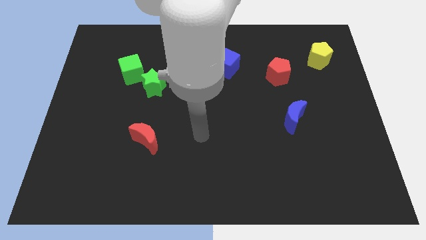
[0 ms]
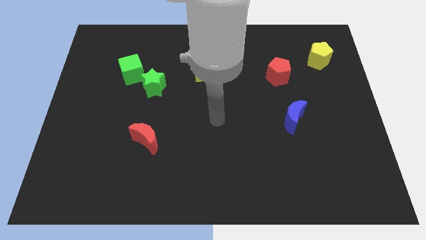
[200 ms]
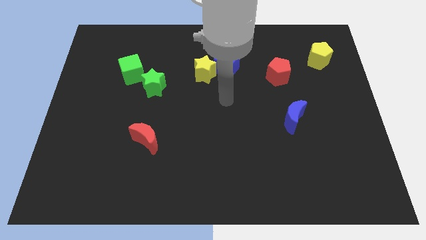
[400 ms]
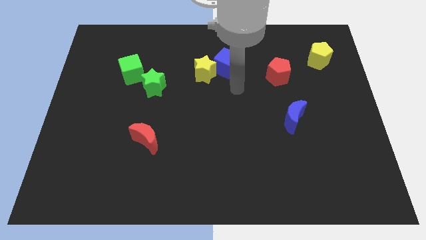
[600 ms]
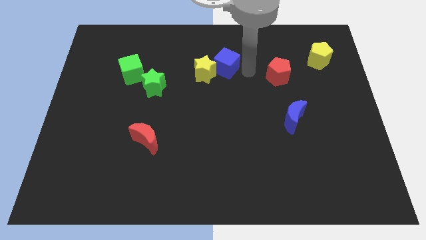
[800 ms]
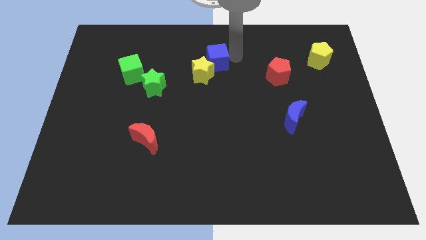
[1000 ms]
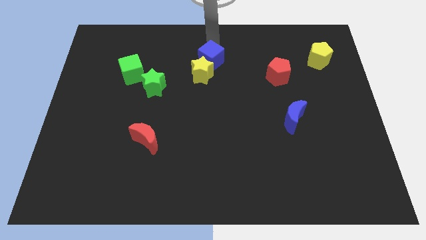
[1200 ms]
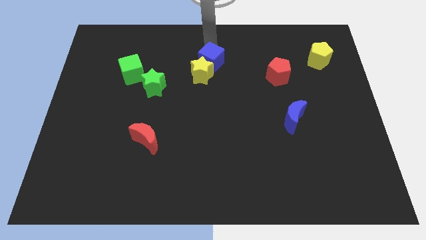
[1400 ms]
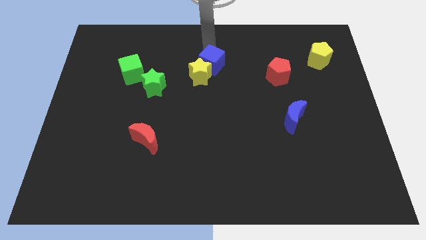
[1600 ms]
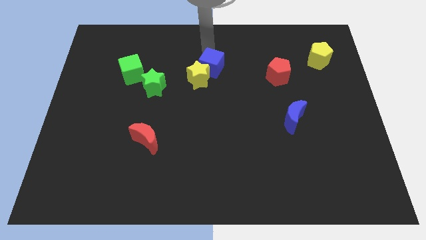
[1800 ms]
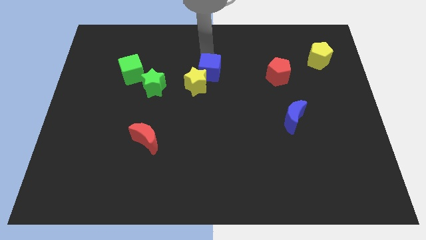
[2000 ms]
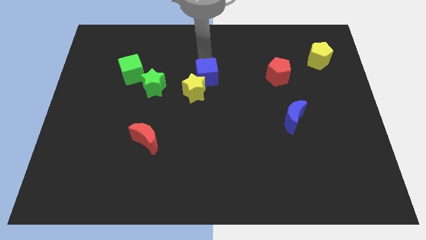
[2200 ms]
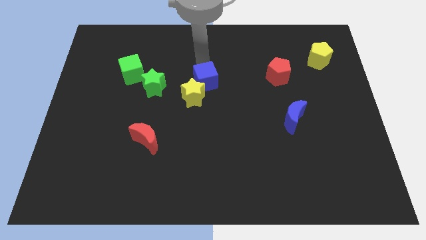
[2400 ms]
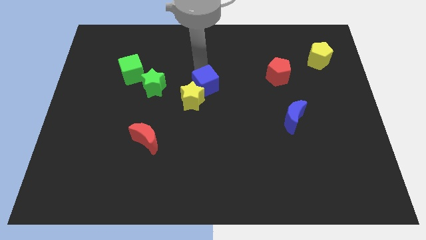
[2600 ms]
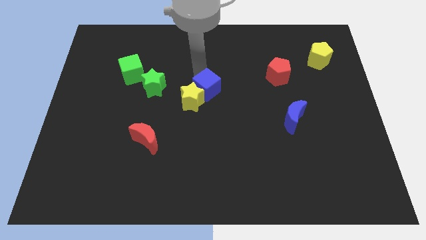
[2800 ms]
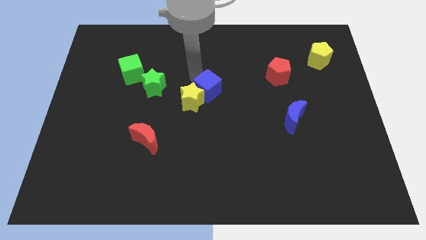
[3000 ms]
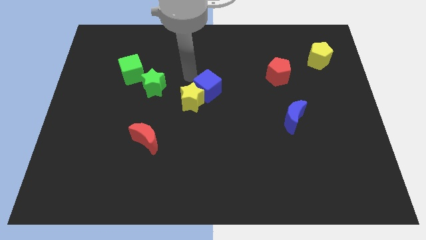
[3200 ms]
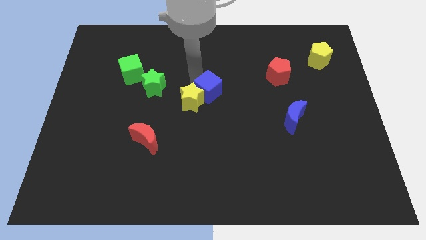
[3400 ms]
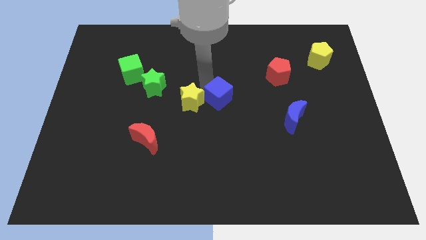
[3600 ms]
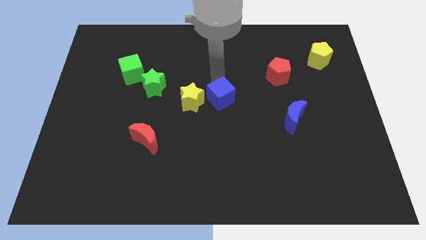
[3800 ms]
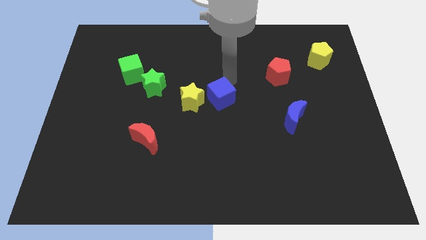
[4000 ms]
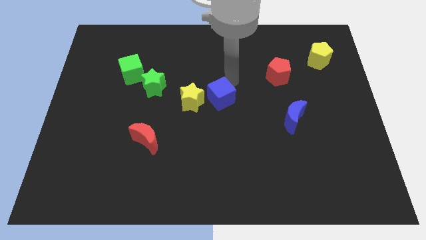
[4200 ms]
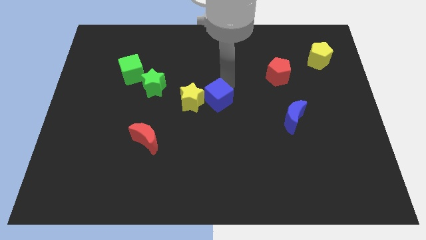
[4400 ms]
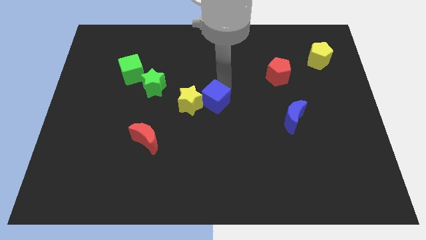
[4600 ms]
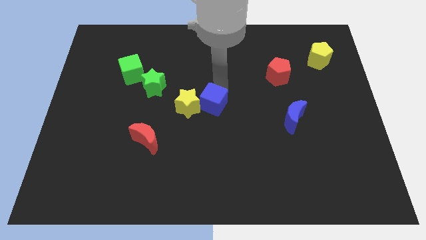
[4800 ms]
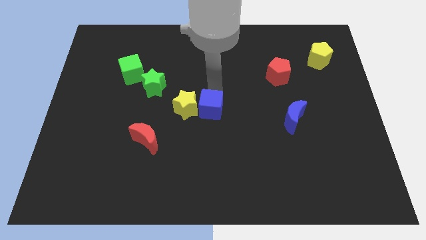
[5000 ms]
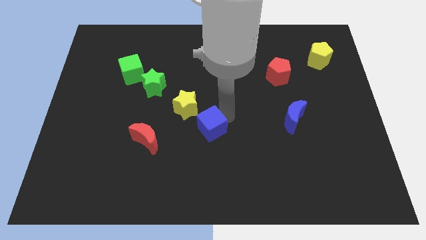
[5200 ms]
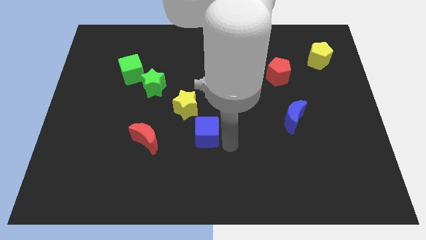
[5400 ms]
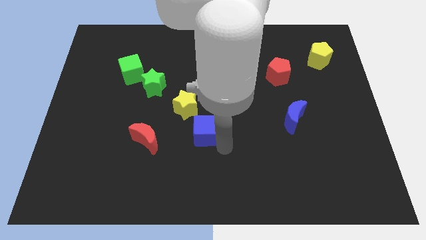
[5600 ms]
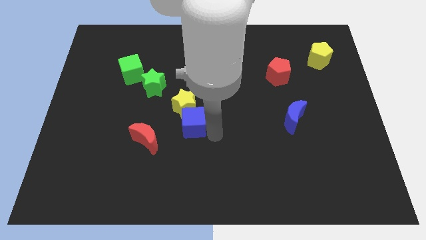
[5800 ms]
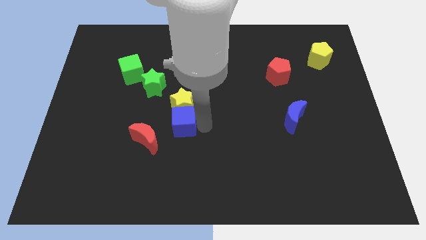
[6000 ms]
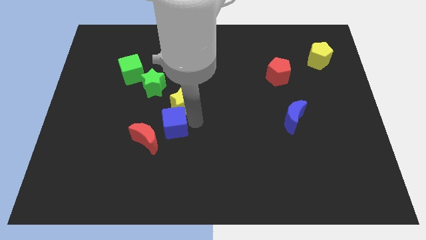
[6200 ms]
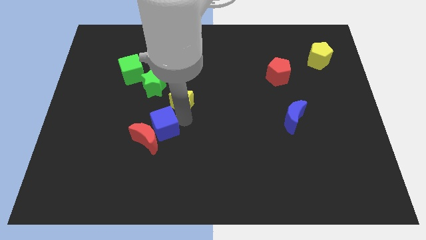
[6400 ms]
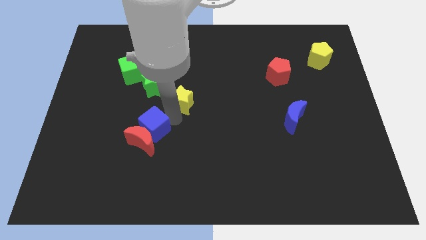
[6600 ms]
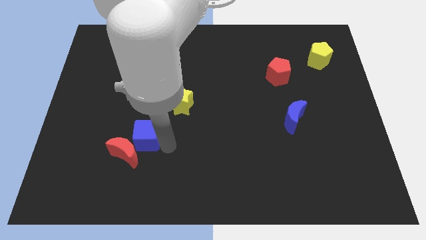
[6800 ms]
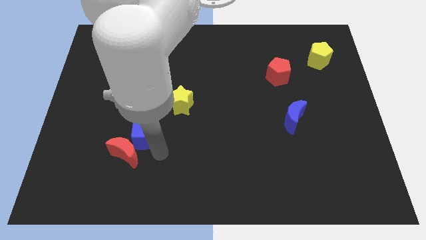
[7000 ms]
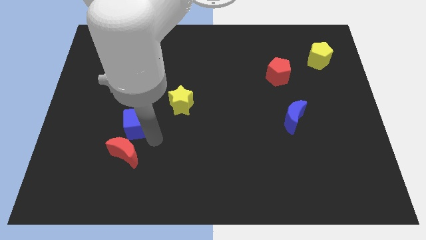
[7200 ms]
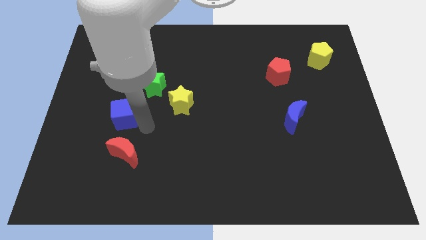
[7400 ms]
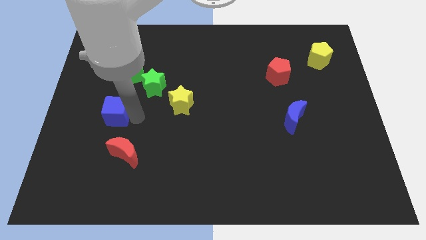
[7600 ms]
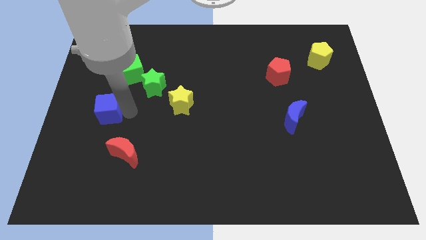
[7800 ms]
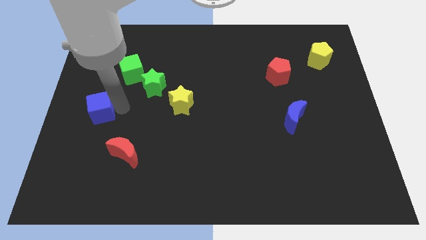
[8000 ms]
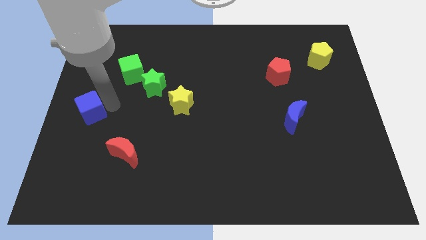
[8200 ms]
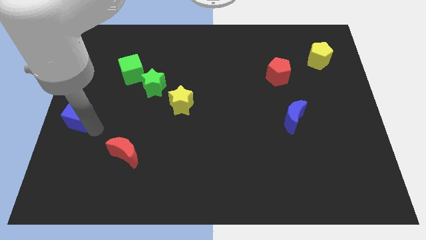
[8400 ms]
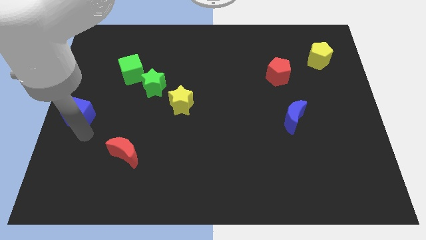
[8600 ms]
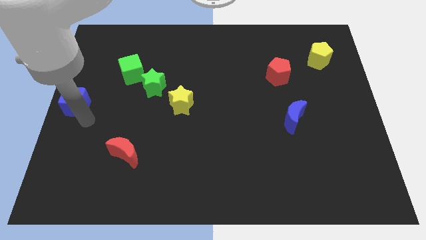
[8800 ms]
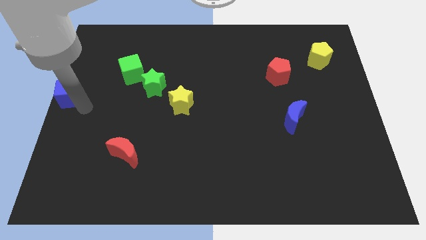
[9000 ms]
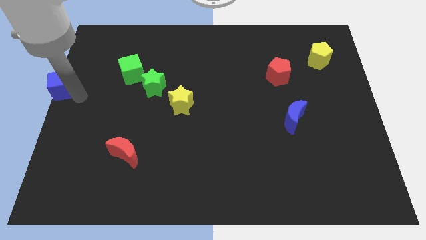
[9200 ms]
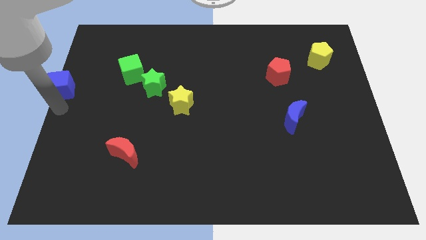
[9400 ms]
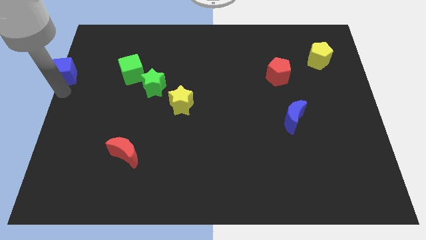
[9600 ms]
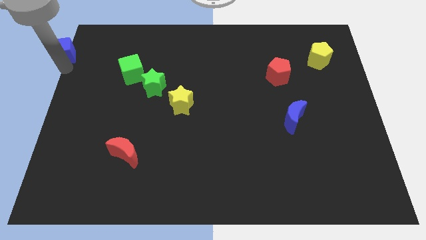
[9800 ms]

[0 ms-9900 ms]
move the blue cube to the upper left corner

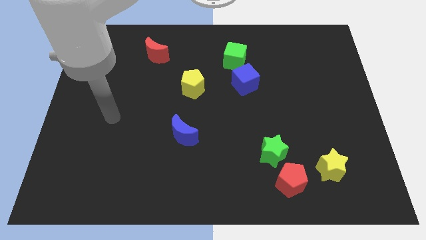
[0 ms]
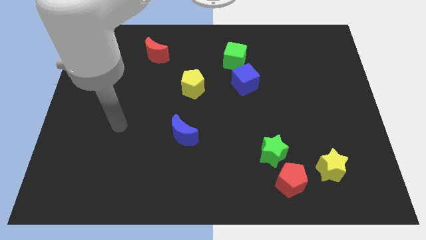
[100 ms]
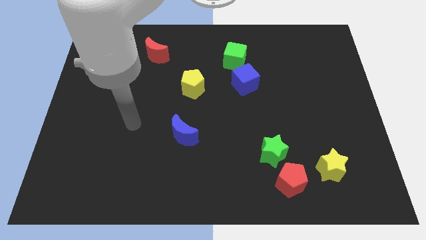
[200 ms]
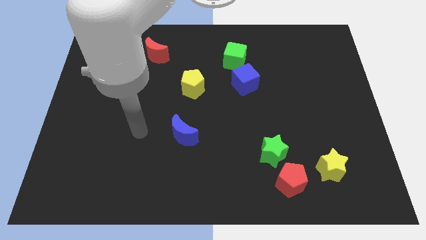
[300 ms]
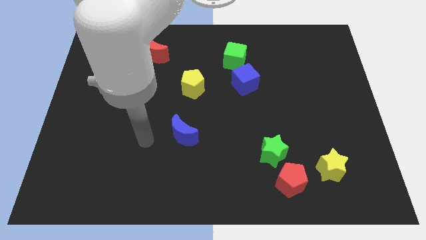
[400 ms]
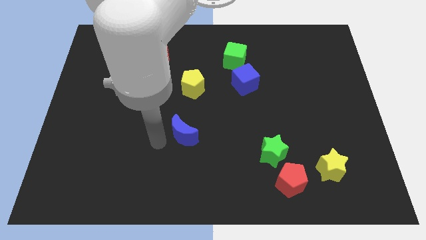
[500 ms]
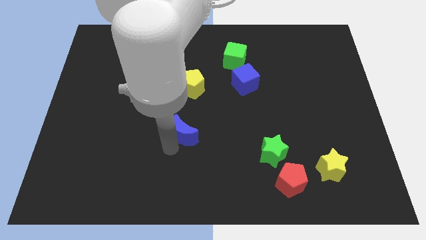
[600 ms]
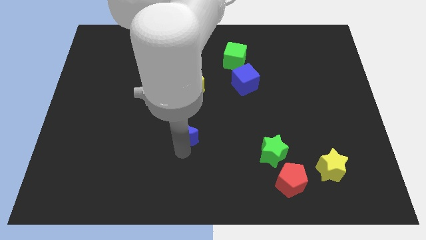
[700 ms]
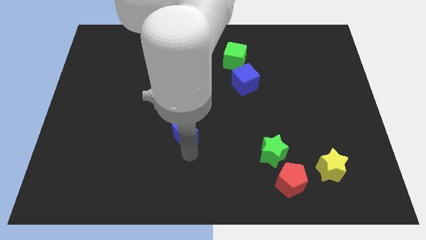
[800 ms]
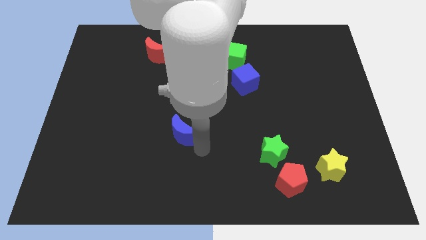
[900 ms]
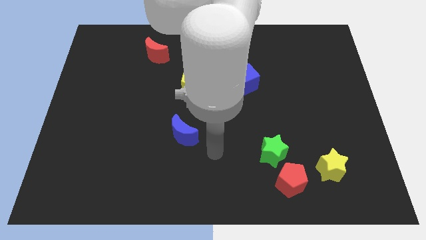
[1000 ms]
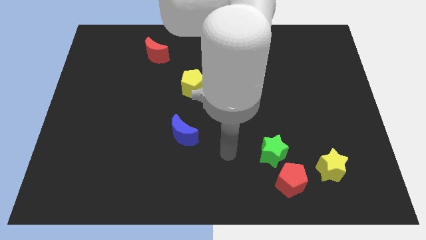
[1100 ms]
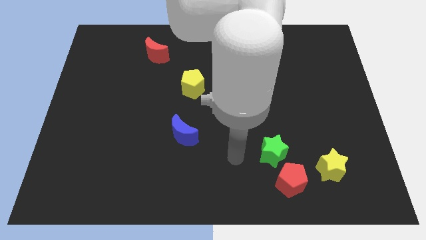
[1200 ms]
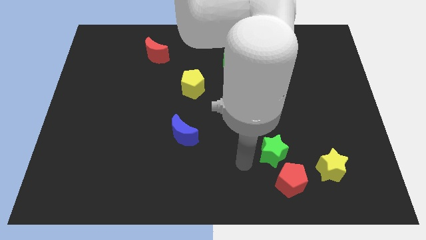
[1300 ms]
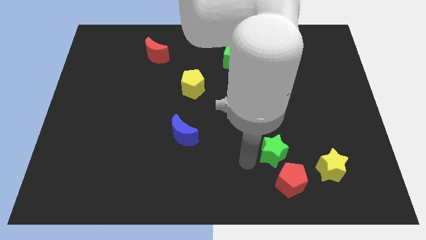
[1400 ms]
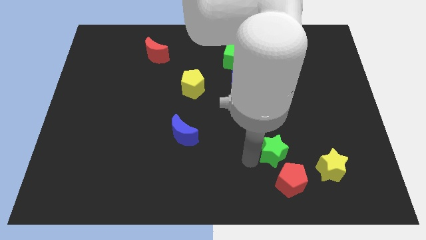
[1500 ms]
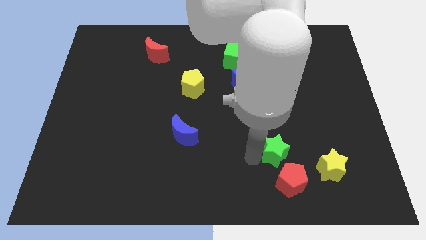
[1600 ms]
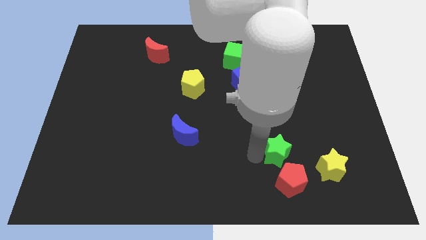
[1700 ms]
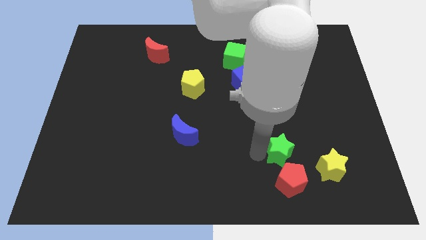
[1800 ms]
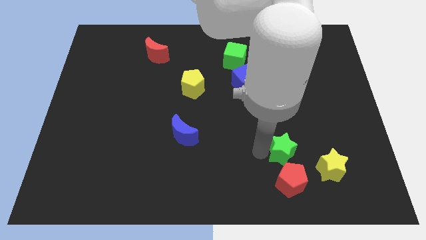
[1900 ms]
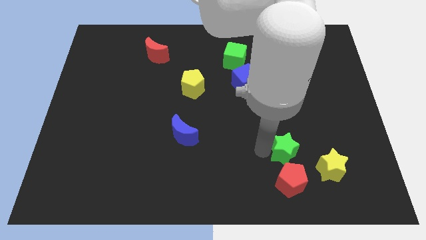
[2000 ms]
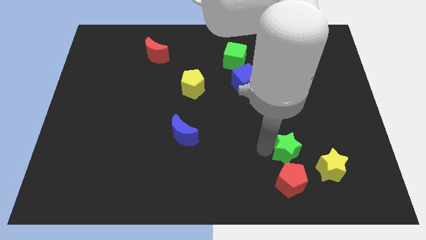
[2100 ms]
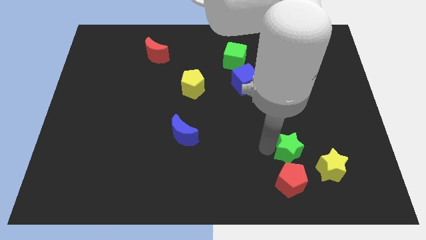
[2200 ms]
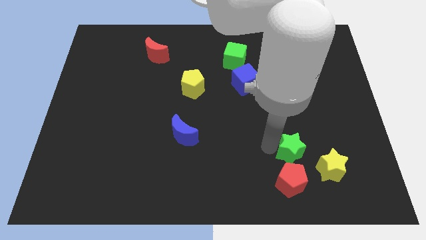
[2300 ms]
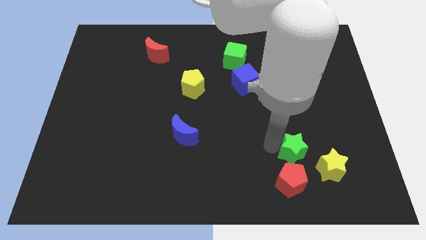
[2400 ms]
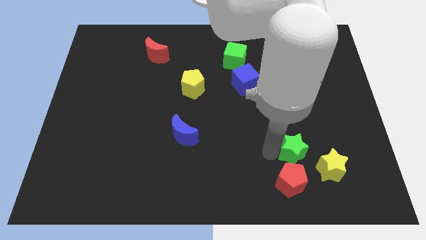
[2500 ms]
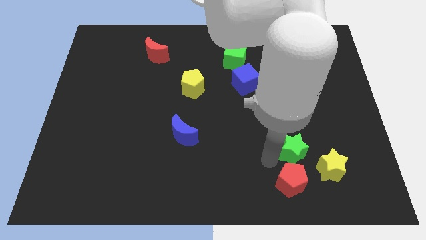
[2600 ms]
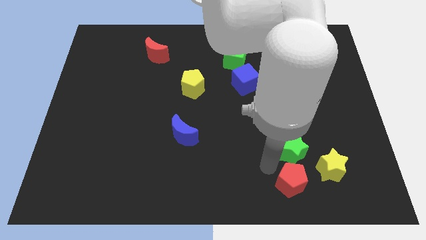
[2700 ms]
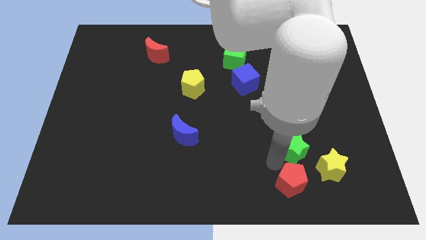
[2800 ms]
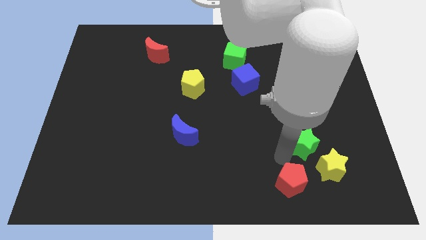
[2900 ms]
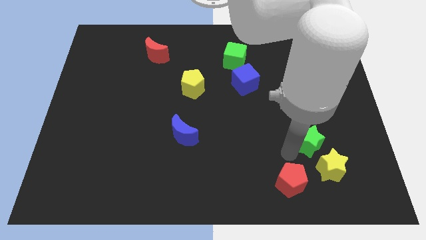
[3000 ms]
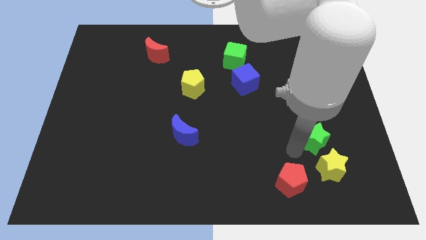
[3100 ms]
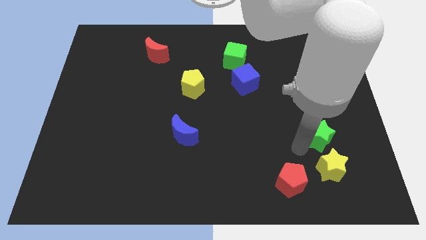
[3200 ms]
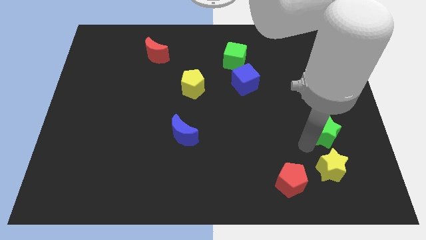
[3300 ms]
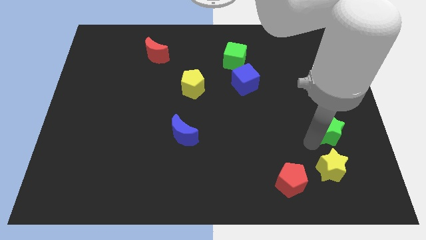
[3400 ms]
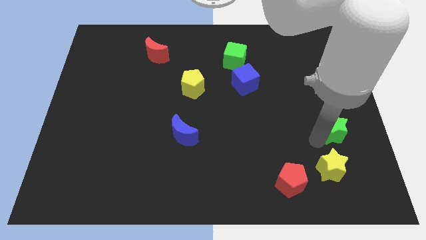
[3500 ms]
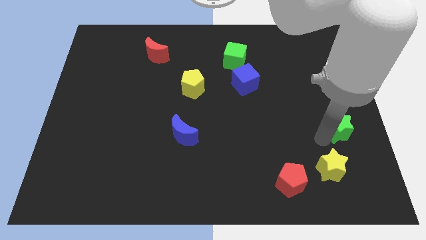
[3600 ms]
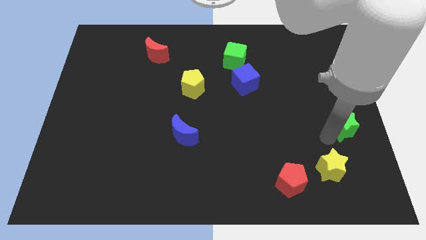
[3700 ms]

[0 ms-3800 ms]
slide the green star to the right side
